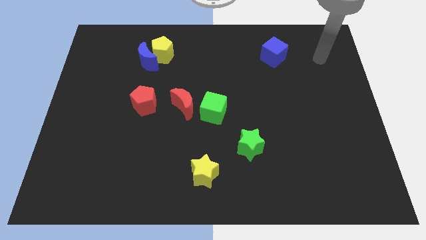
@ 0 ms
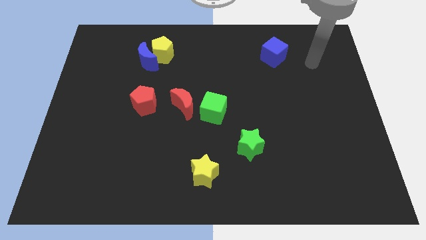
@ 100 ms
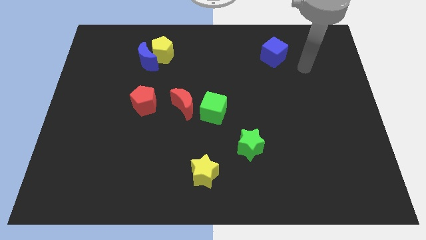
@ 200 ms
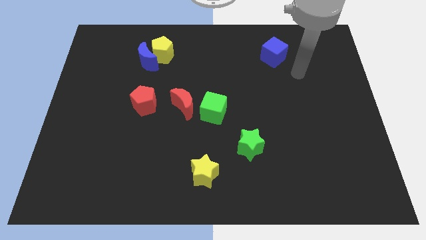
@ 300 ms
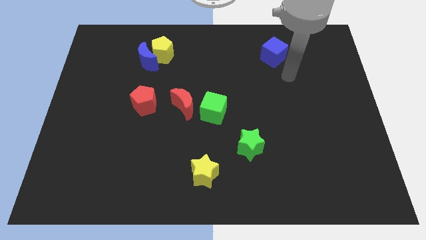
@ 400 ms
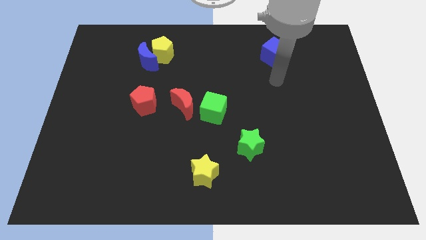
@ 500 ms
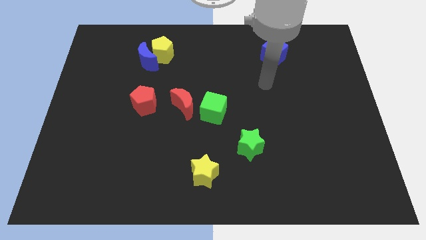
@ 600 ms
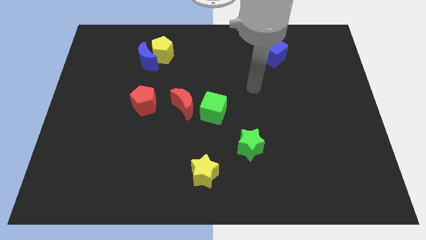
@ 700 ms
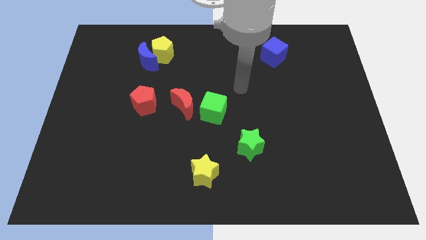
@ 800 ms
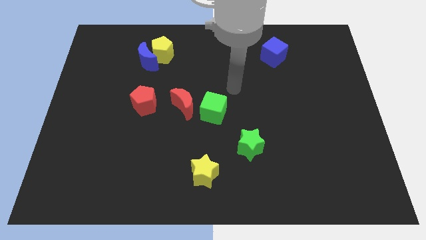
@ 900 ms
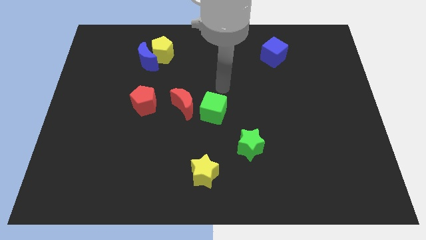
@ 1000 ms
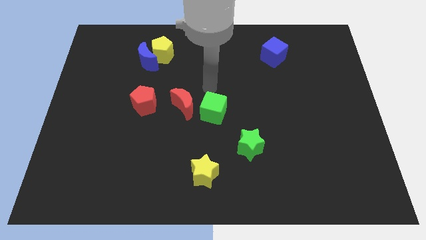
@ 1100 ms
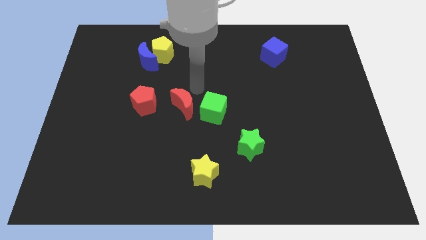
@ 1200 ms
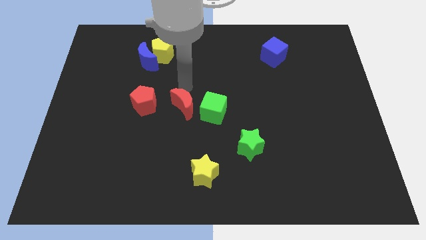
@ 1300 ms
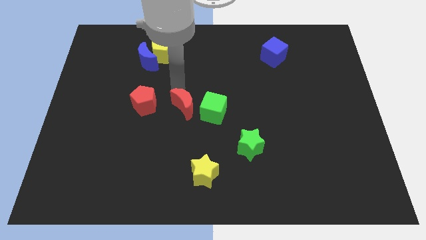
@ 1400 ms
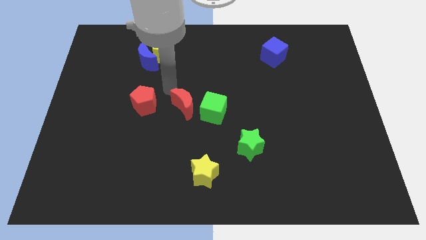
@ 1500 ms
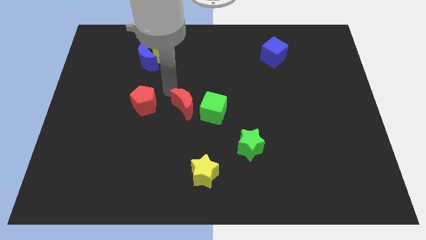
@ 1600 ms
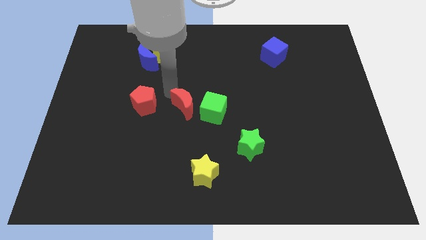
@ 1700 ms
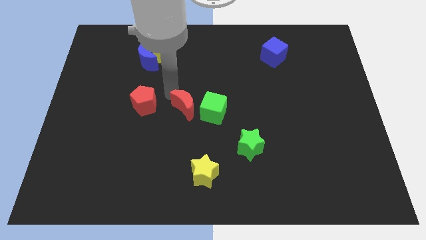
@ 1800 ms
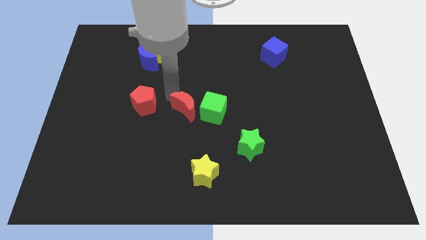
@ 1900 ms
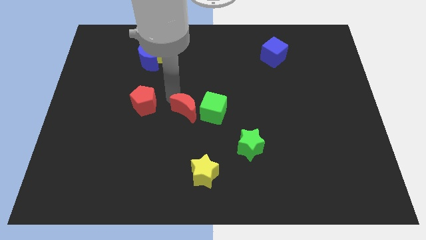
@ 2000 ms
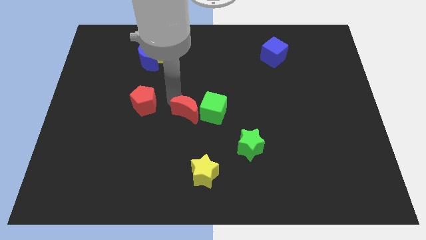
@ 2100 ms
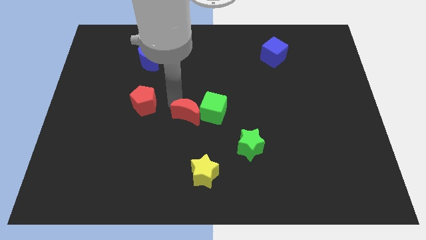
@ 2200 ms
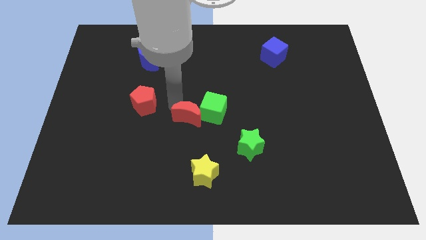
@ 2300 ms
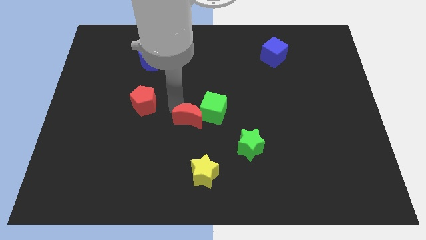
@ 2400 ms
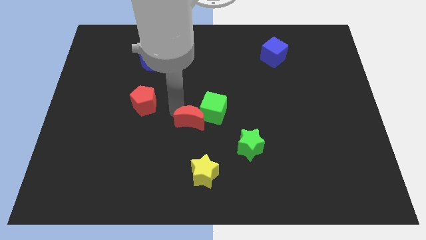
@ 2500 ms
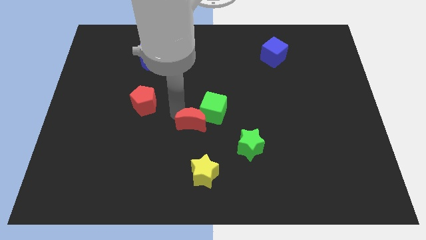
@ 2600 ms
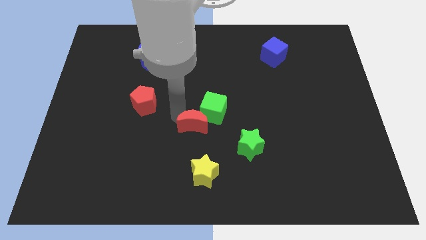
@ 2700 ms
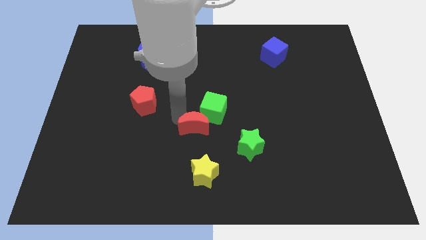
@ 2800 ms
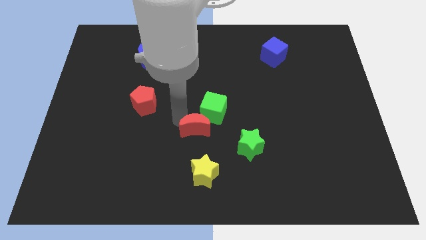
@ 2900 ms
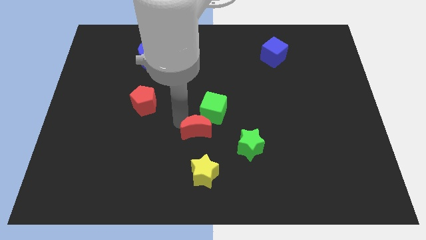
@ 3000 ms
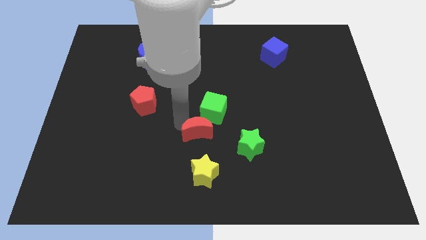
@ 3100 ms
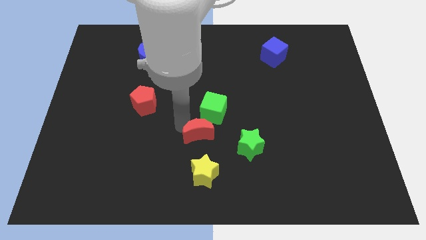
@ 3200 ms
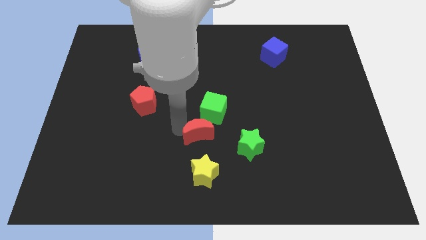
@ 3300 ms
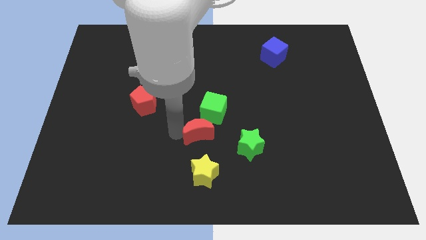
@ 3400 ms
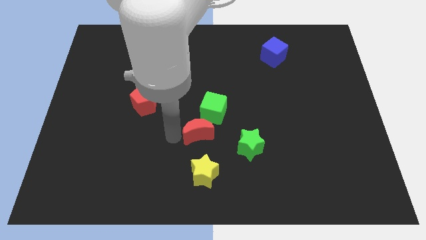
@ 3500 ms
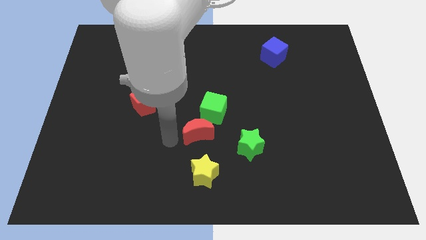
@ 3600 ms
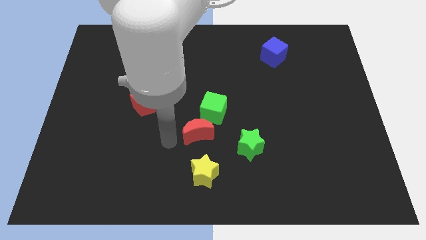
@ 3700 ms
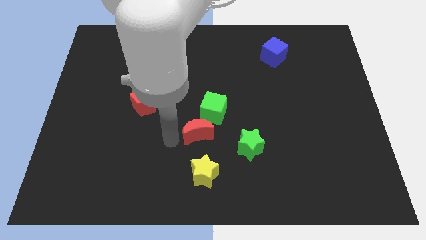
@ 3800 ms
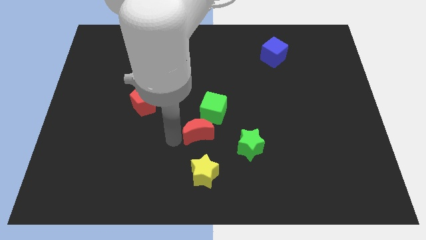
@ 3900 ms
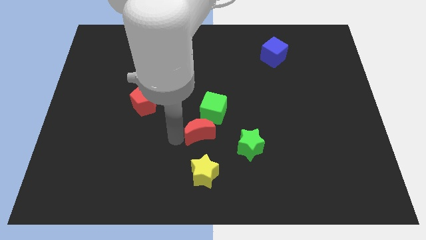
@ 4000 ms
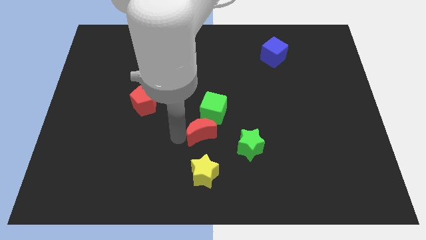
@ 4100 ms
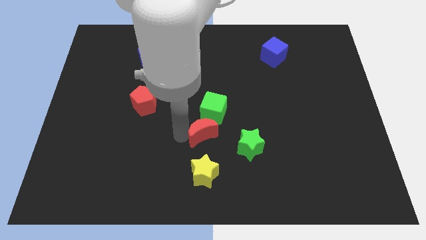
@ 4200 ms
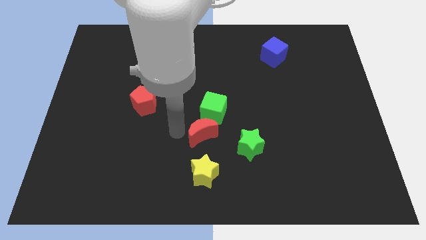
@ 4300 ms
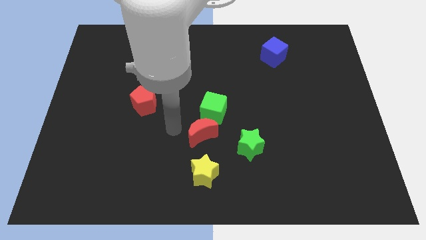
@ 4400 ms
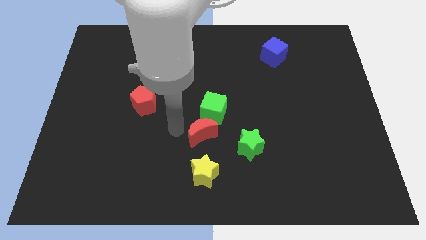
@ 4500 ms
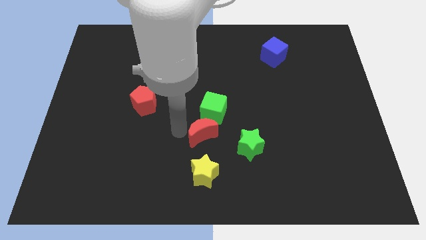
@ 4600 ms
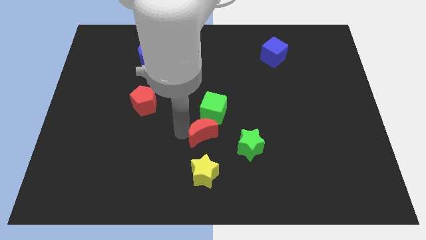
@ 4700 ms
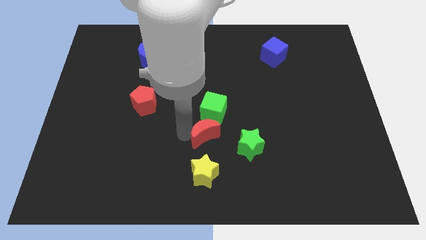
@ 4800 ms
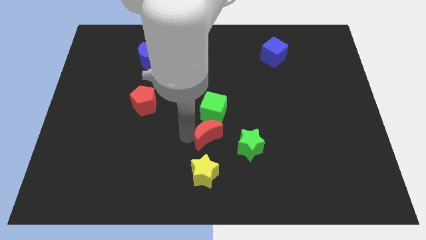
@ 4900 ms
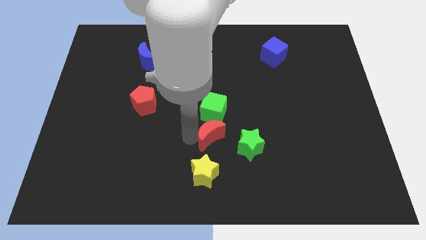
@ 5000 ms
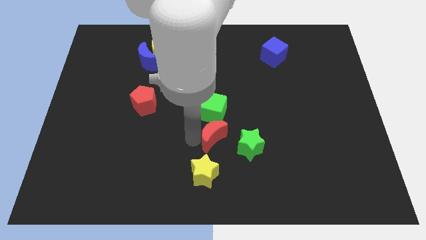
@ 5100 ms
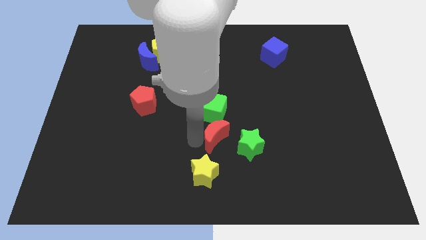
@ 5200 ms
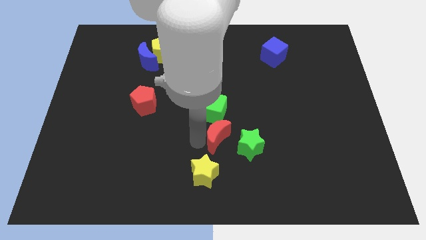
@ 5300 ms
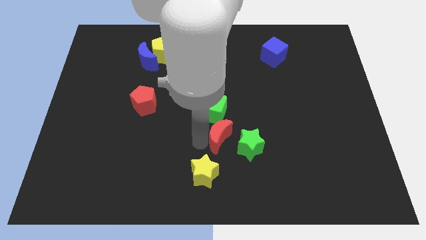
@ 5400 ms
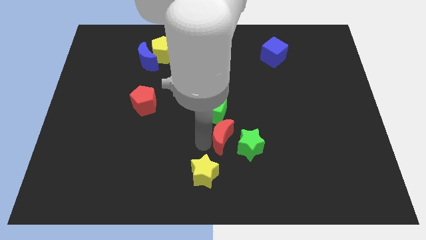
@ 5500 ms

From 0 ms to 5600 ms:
push the red moon next to the green star
